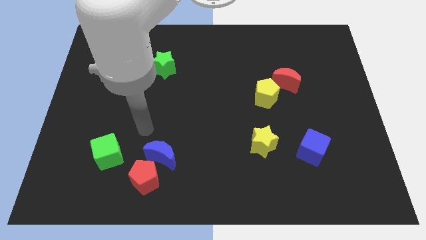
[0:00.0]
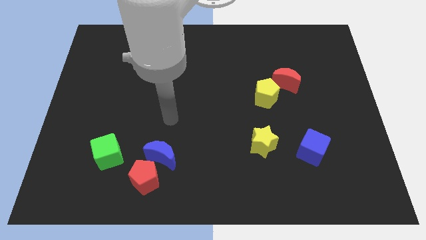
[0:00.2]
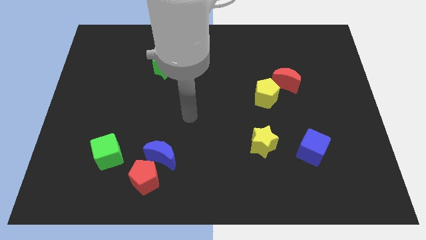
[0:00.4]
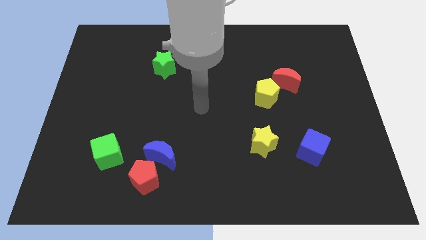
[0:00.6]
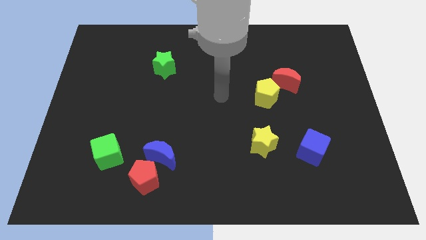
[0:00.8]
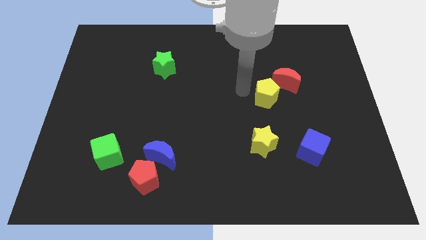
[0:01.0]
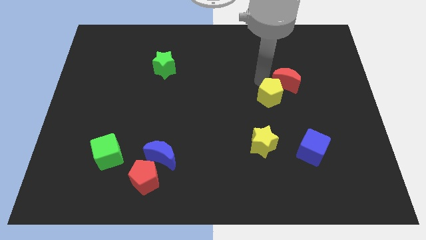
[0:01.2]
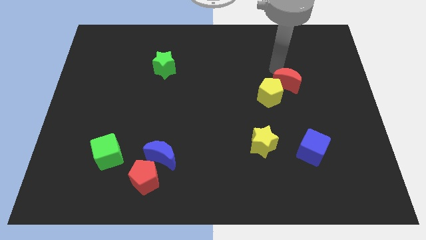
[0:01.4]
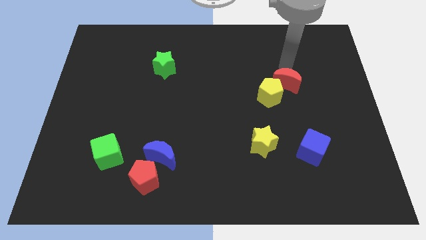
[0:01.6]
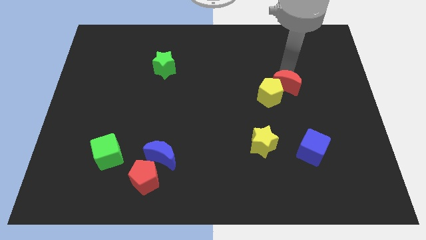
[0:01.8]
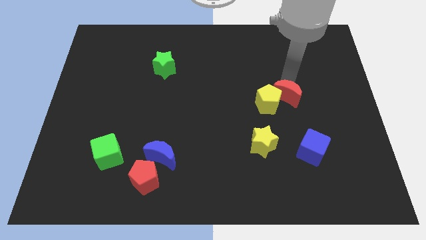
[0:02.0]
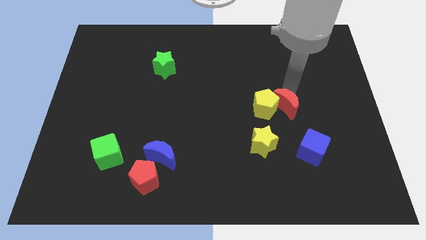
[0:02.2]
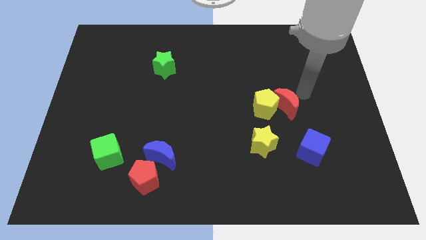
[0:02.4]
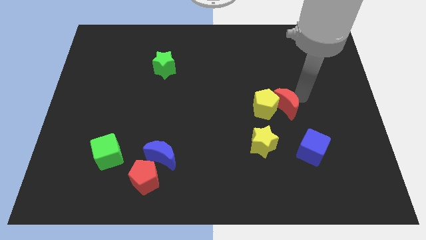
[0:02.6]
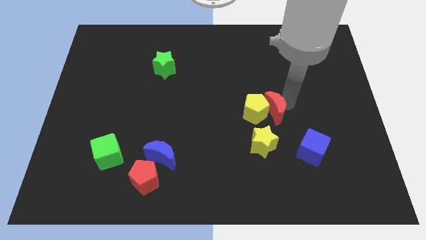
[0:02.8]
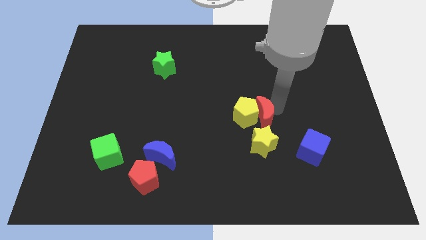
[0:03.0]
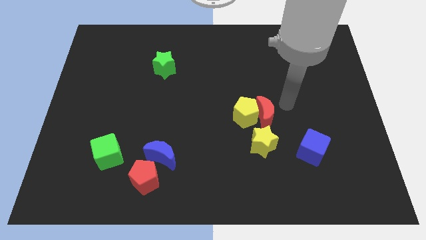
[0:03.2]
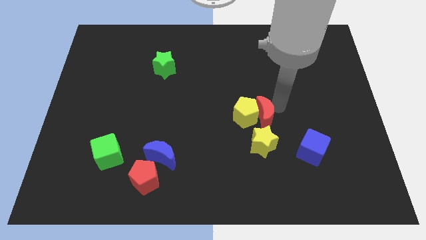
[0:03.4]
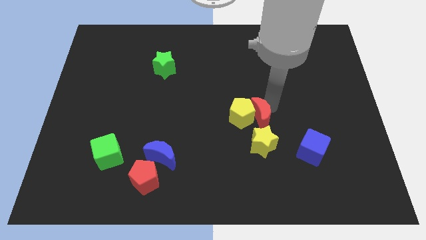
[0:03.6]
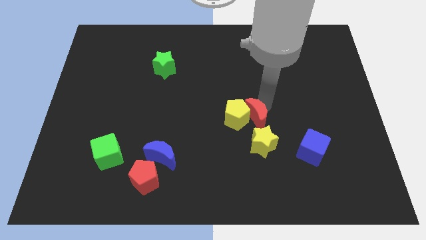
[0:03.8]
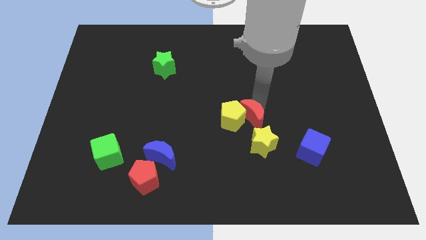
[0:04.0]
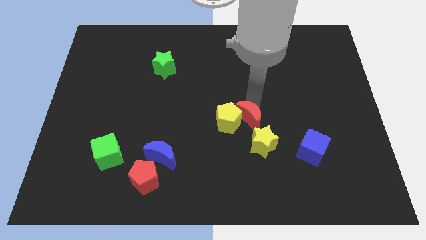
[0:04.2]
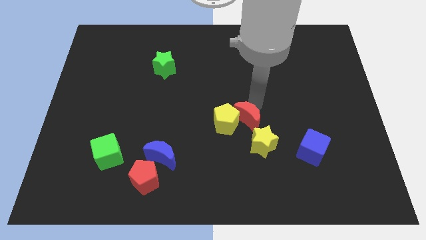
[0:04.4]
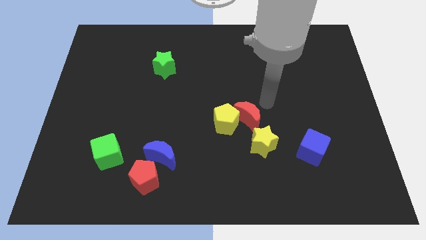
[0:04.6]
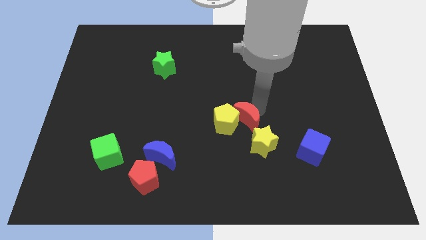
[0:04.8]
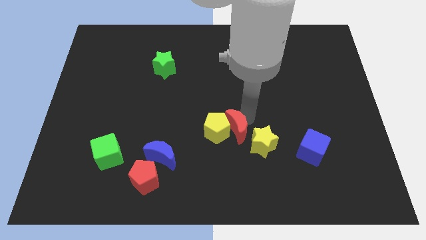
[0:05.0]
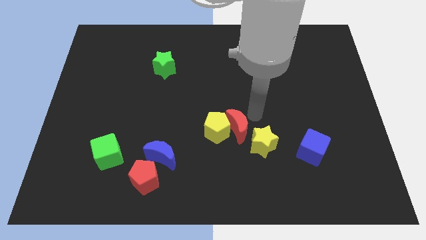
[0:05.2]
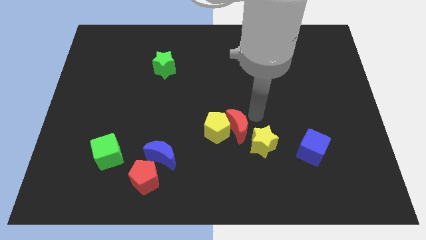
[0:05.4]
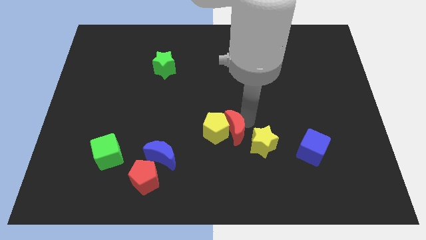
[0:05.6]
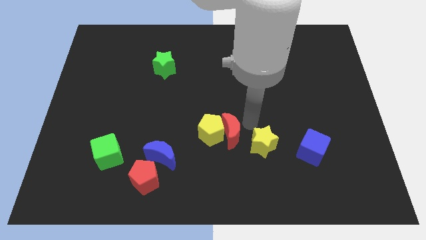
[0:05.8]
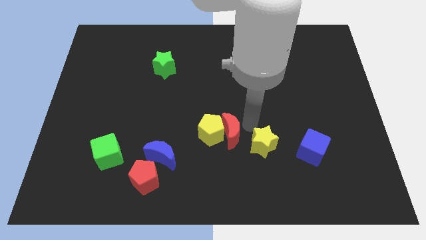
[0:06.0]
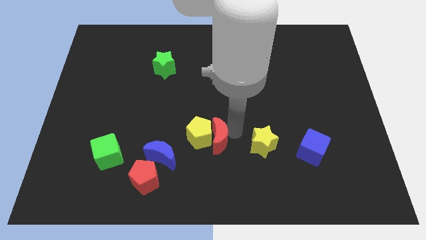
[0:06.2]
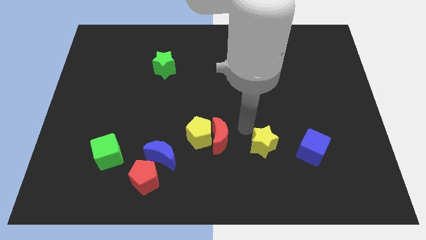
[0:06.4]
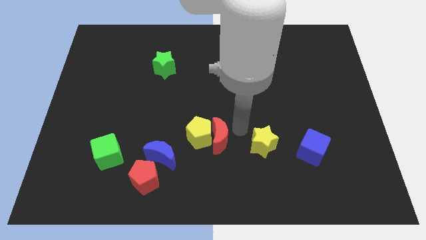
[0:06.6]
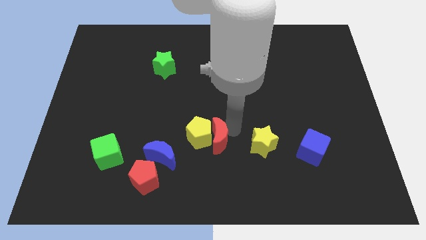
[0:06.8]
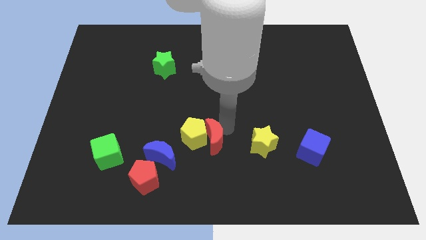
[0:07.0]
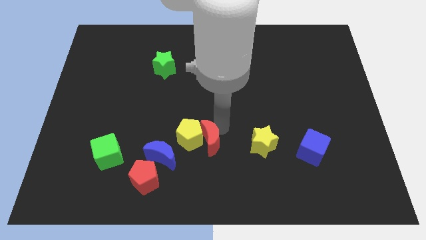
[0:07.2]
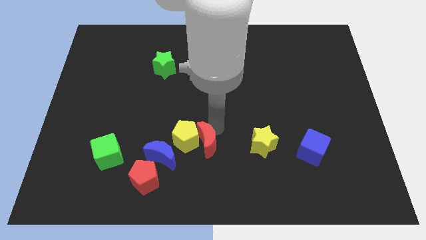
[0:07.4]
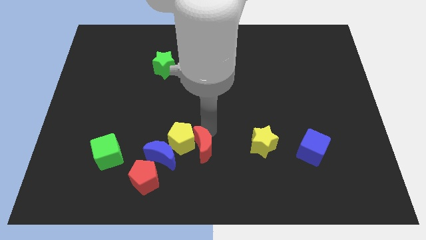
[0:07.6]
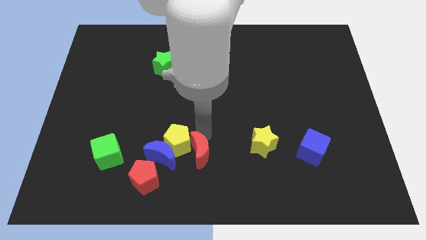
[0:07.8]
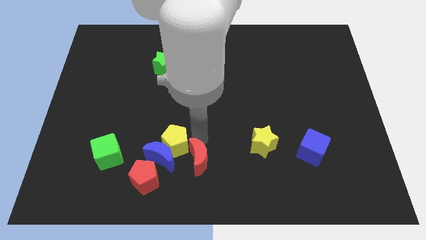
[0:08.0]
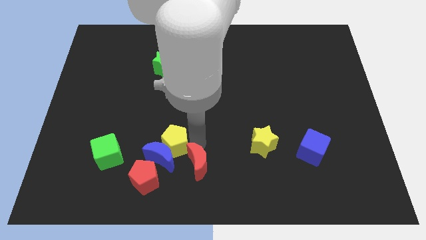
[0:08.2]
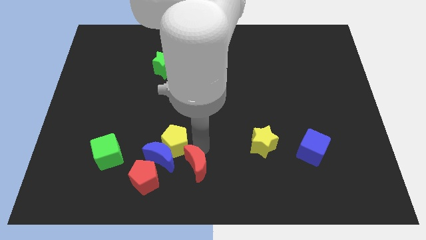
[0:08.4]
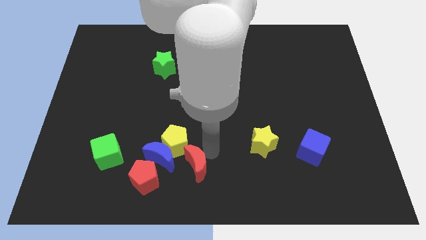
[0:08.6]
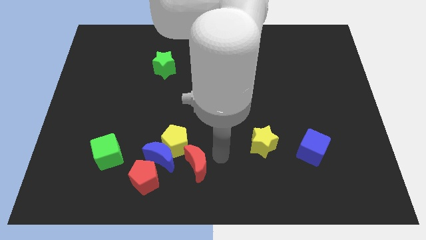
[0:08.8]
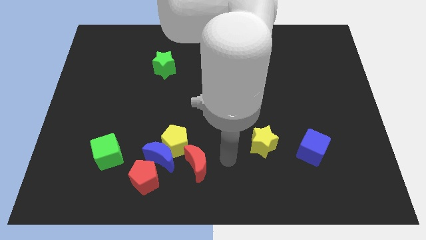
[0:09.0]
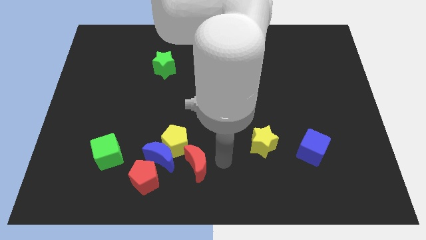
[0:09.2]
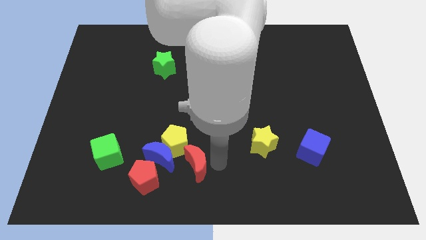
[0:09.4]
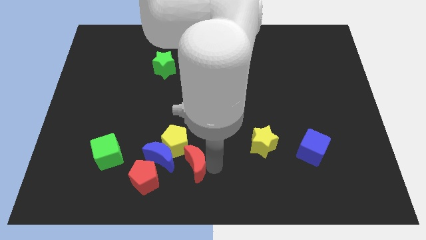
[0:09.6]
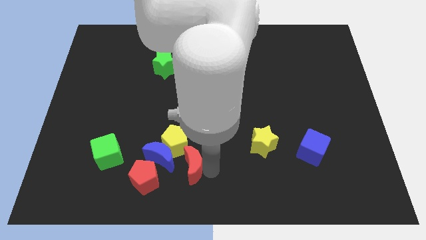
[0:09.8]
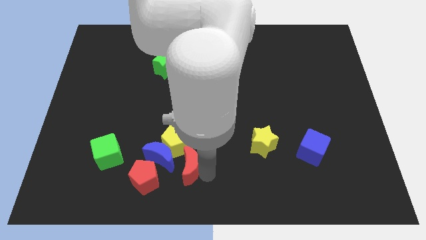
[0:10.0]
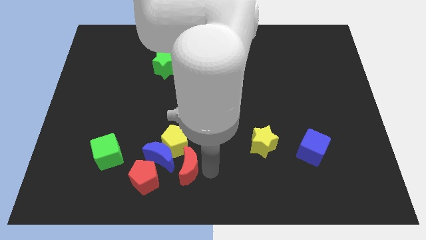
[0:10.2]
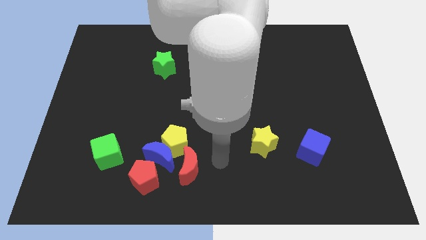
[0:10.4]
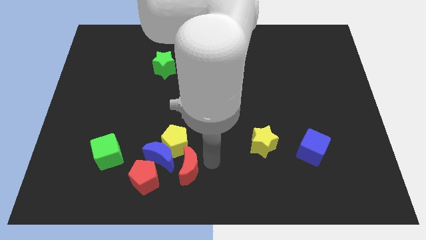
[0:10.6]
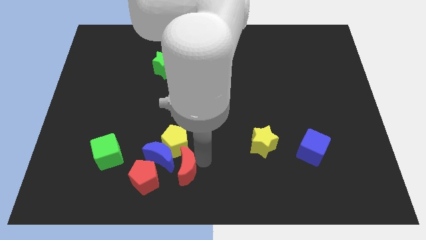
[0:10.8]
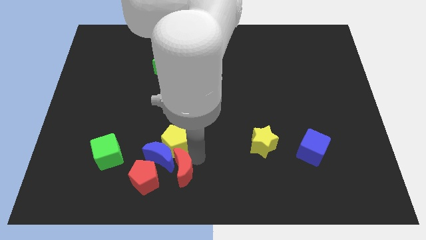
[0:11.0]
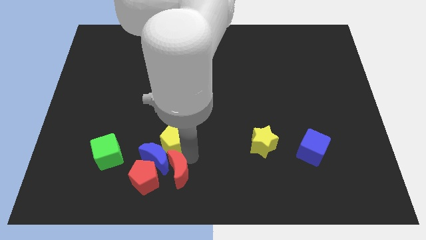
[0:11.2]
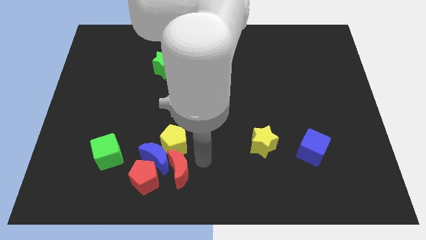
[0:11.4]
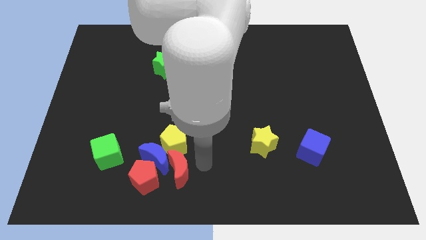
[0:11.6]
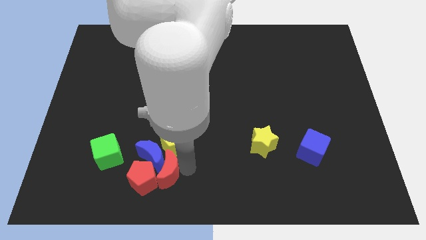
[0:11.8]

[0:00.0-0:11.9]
push the red moon to the red pentagon

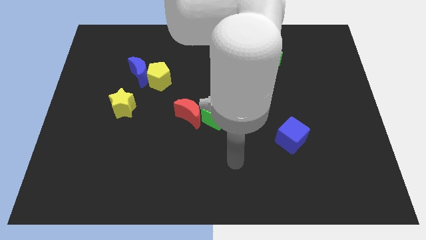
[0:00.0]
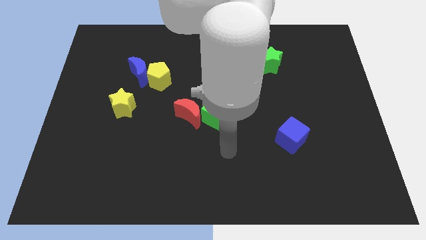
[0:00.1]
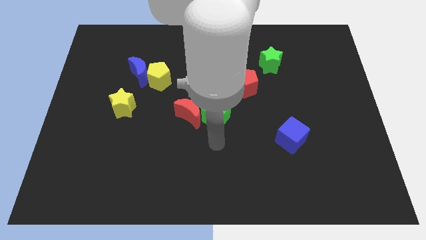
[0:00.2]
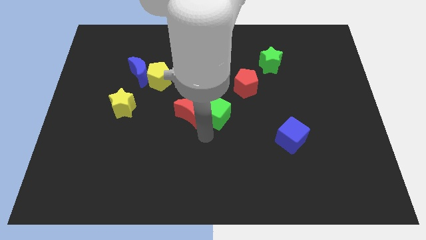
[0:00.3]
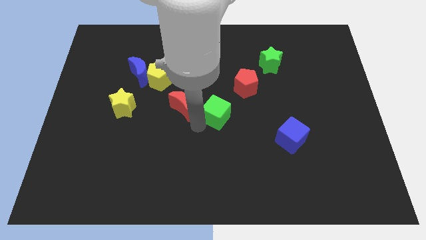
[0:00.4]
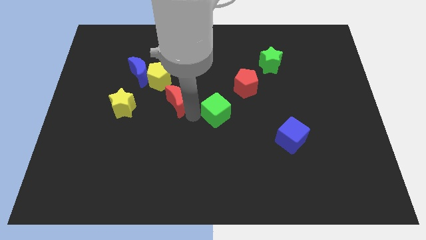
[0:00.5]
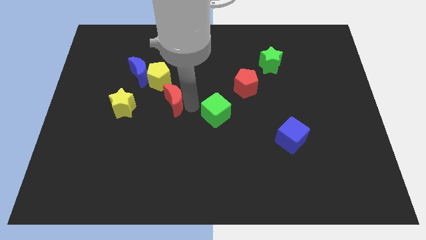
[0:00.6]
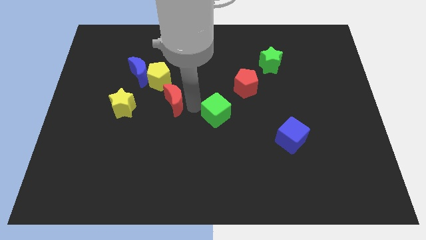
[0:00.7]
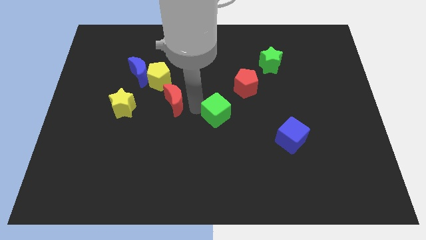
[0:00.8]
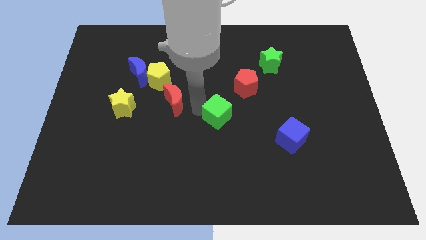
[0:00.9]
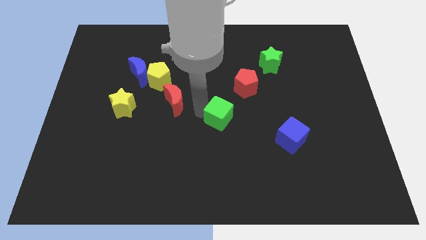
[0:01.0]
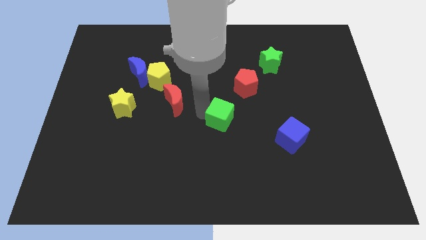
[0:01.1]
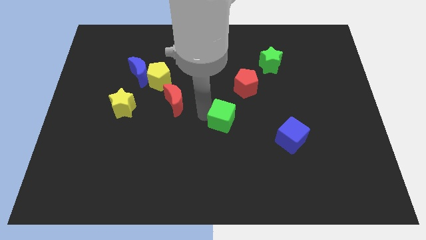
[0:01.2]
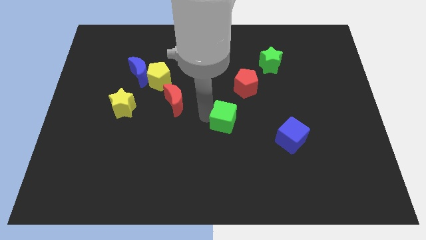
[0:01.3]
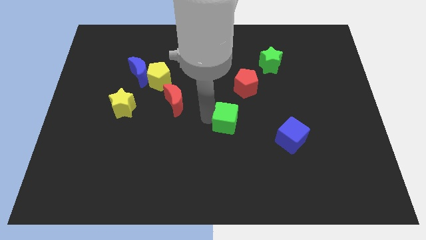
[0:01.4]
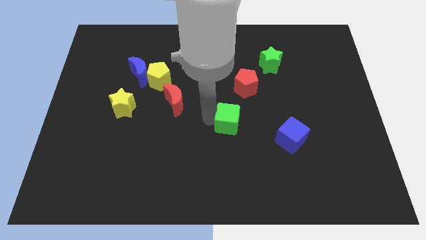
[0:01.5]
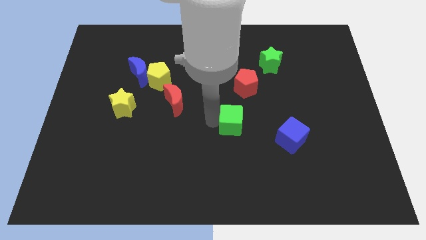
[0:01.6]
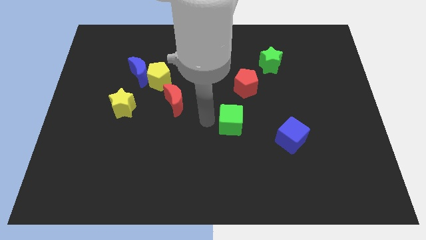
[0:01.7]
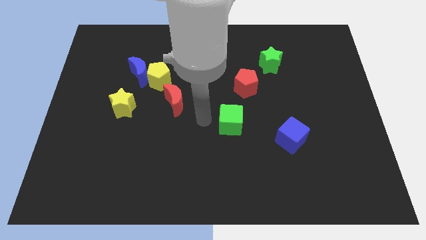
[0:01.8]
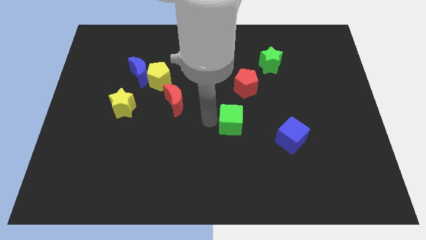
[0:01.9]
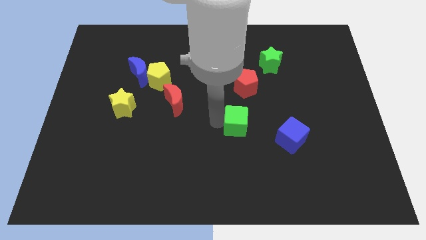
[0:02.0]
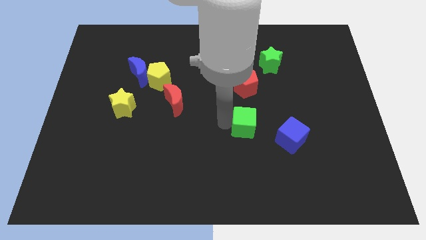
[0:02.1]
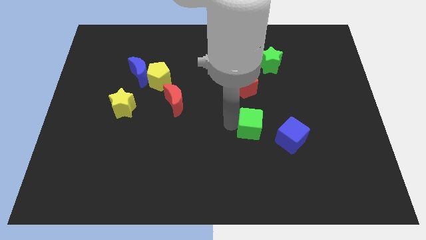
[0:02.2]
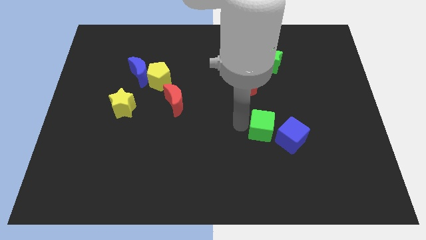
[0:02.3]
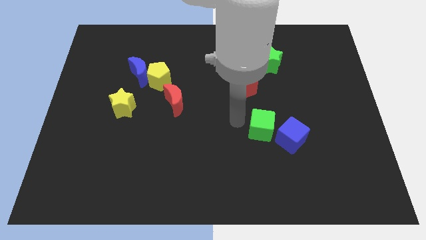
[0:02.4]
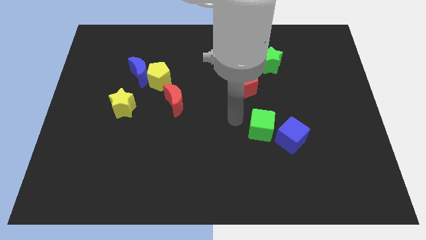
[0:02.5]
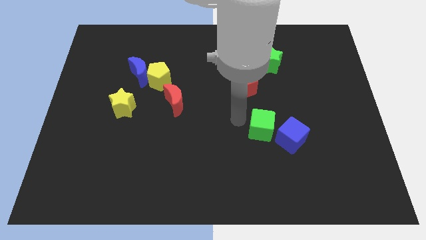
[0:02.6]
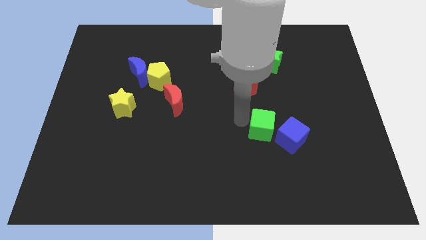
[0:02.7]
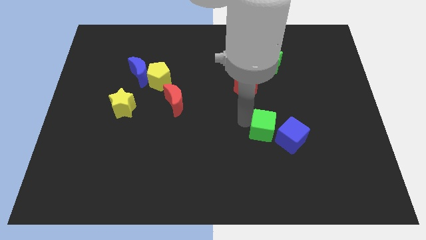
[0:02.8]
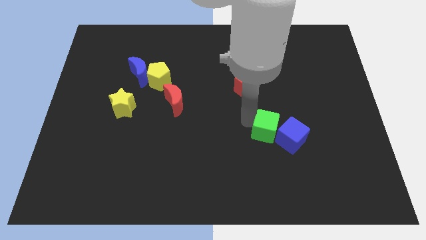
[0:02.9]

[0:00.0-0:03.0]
push the green cube next to the blue cube
